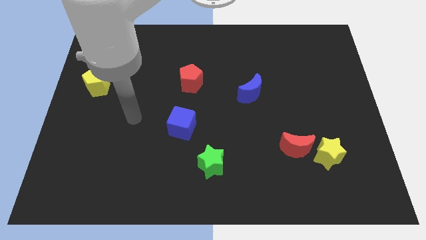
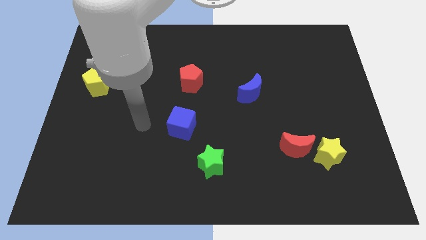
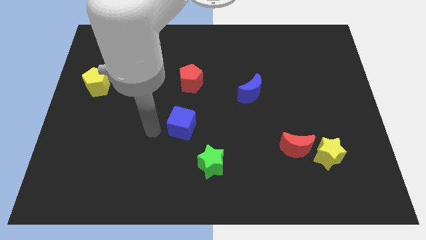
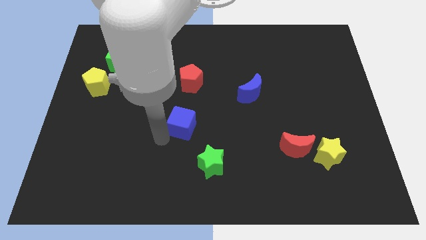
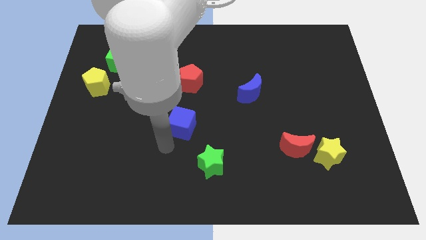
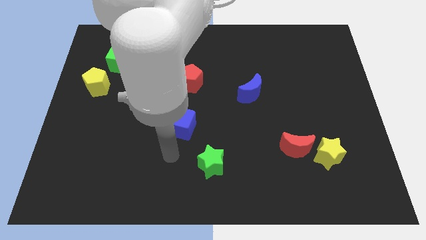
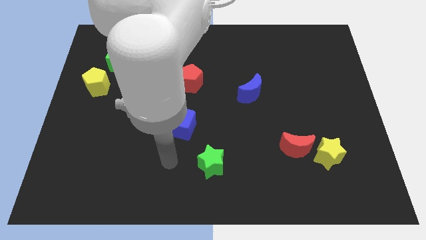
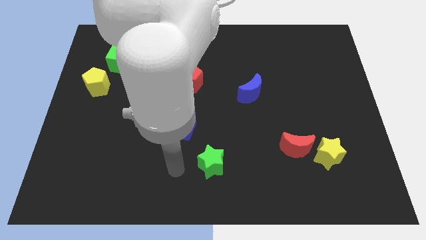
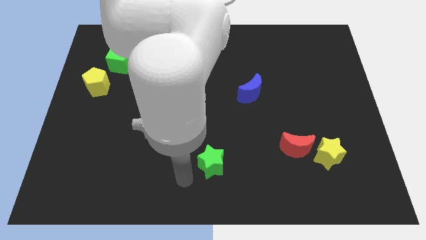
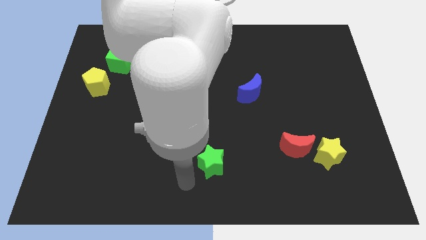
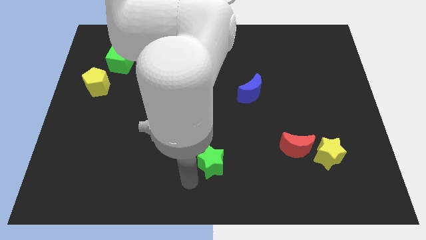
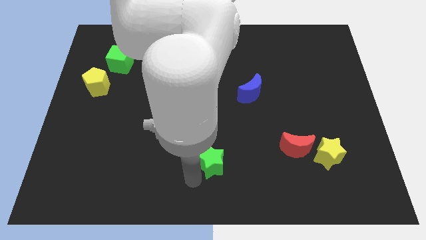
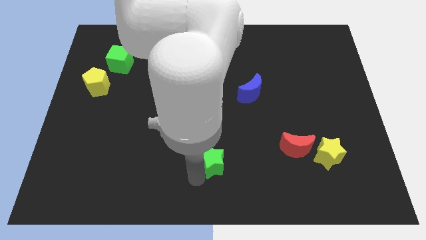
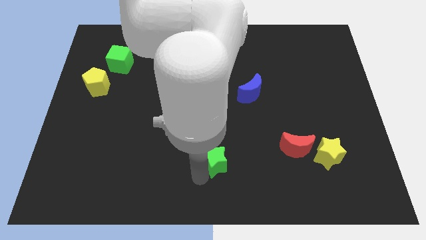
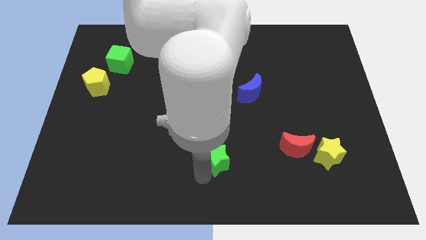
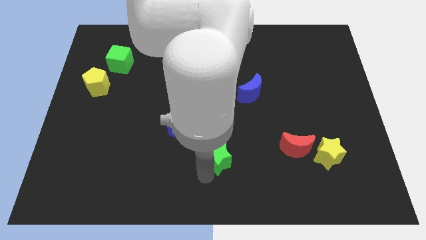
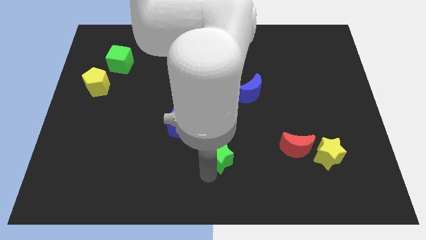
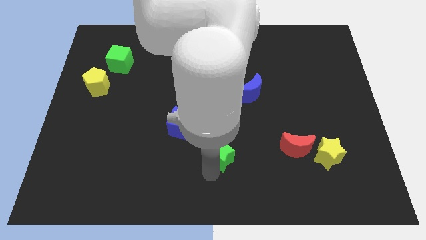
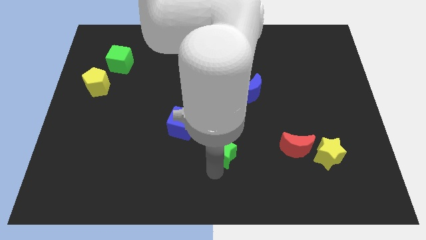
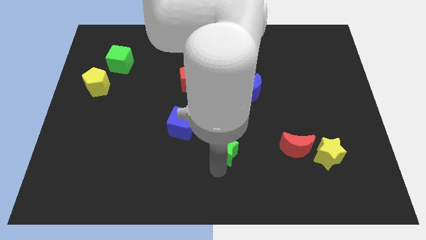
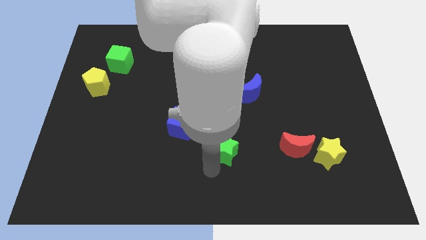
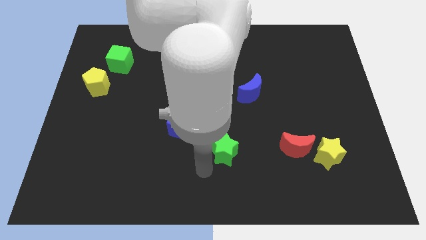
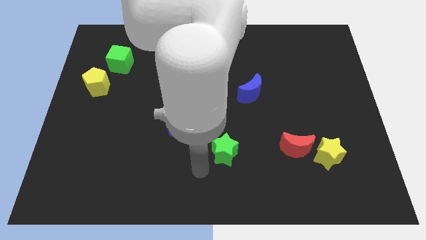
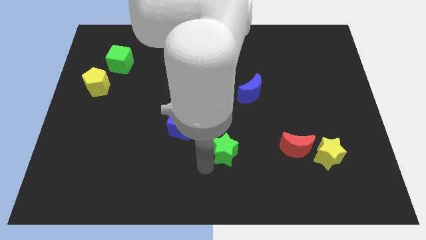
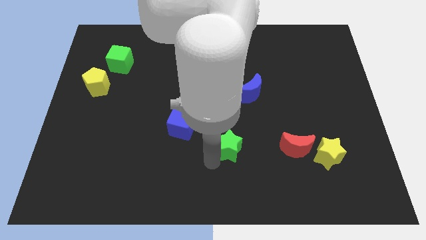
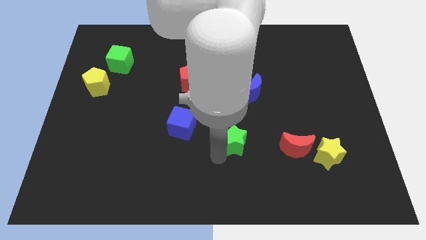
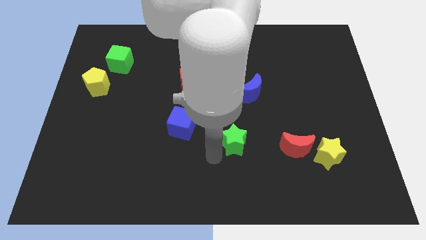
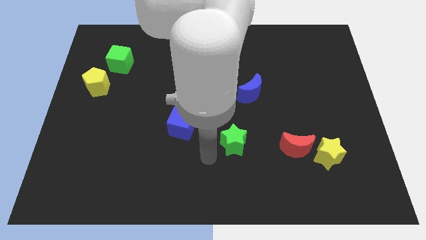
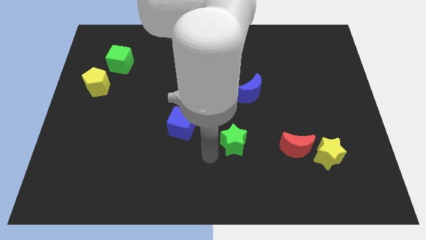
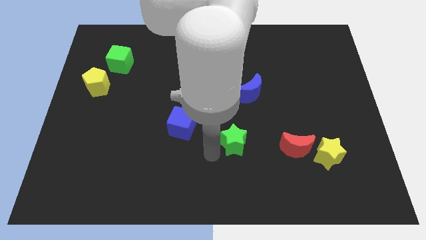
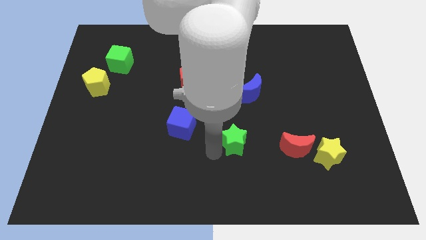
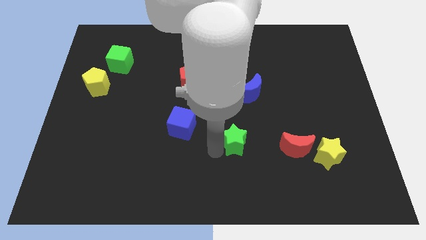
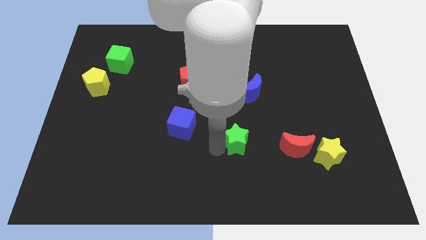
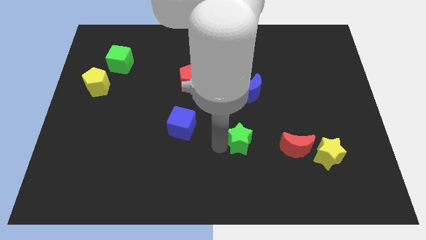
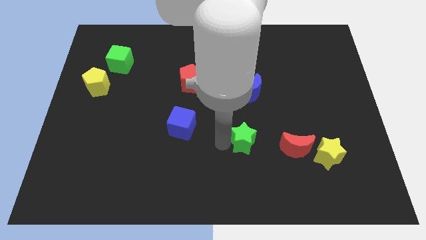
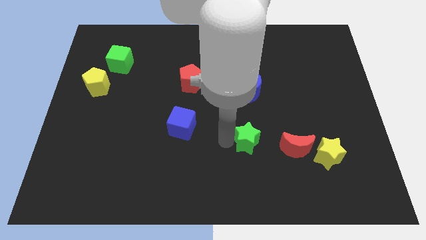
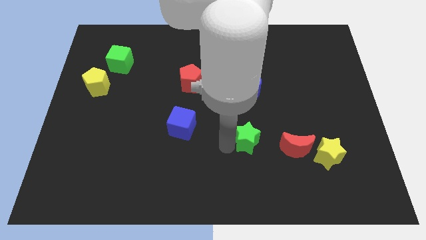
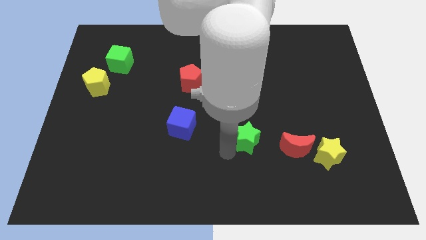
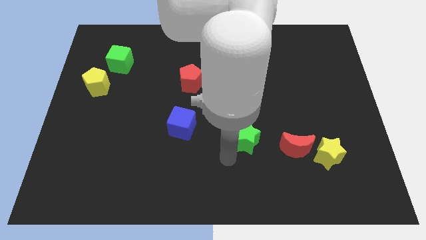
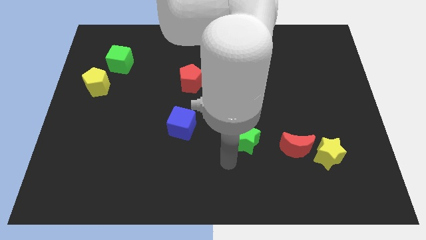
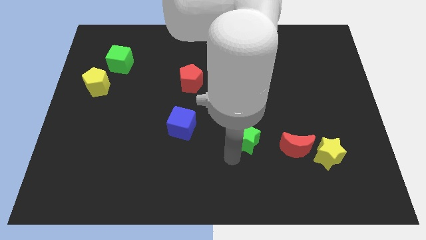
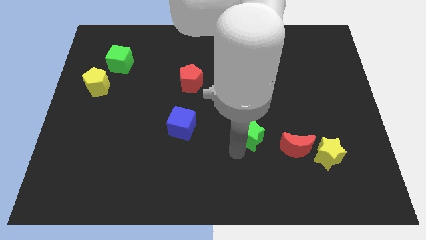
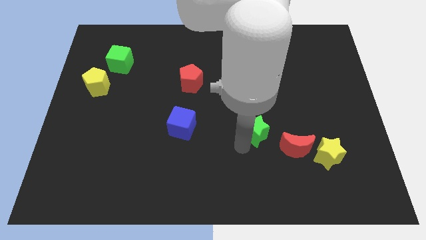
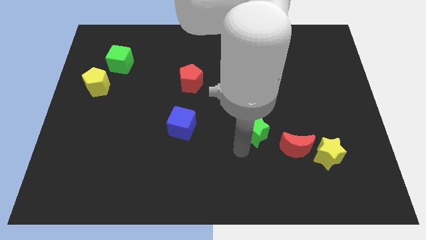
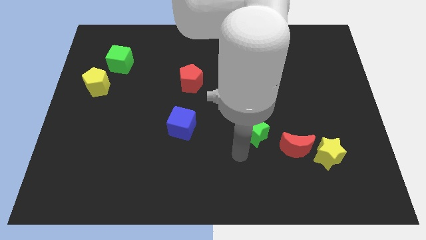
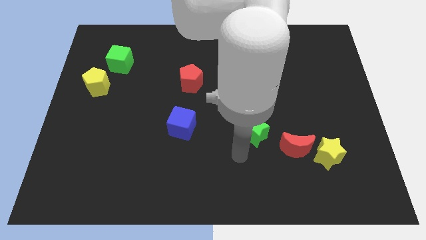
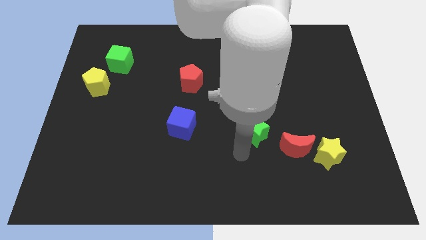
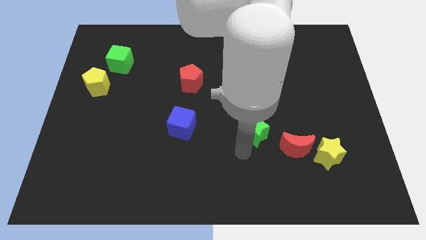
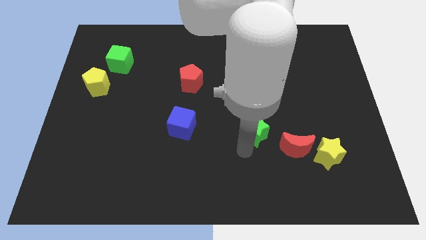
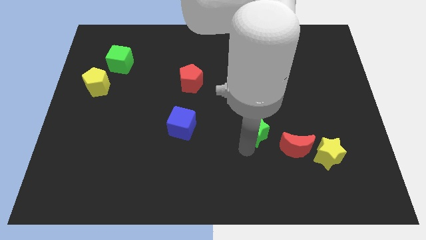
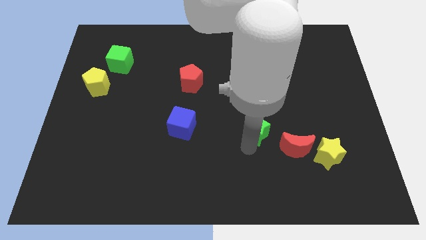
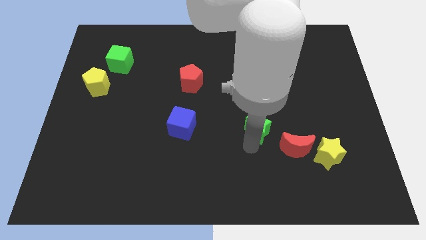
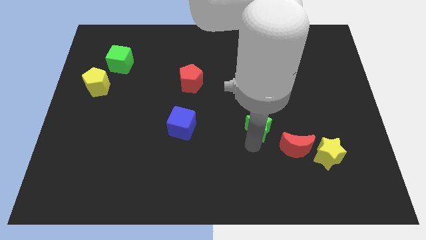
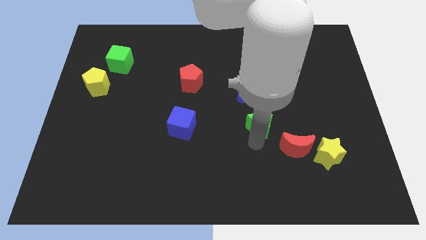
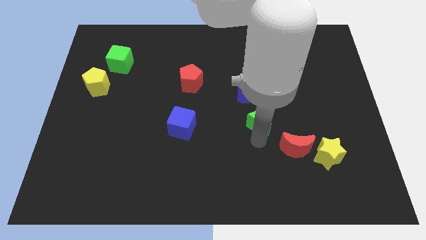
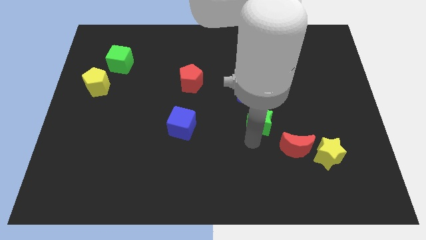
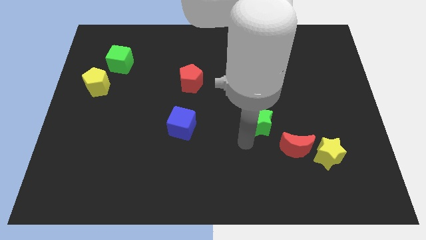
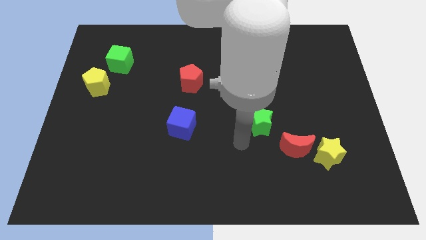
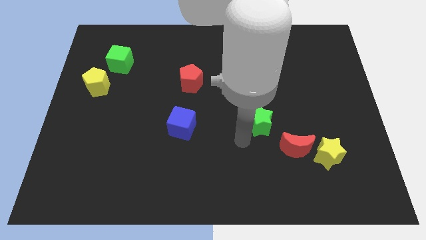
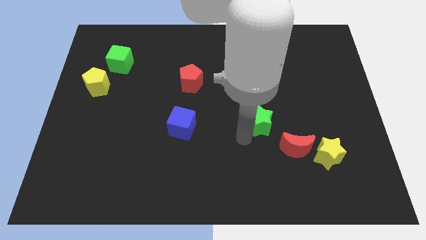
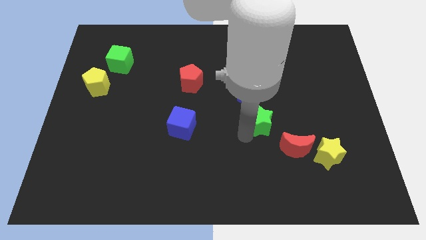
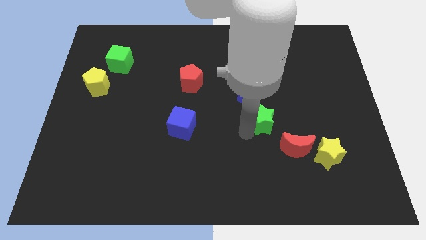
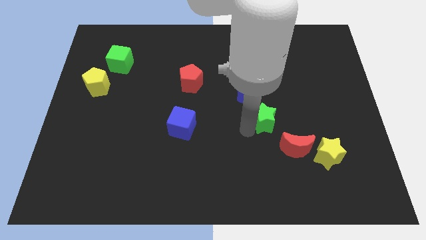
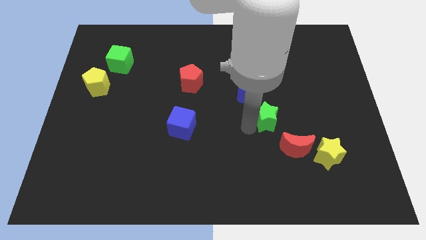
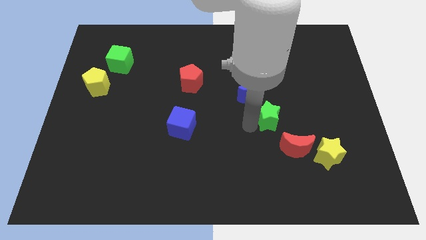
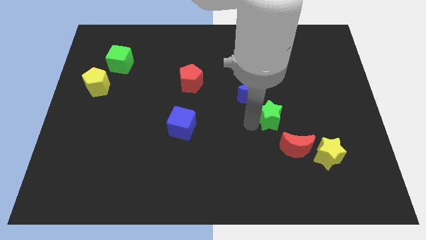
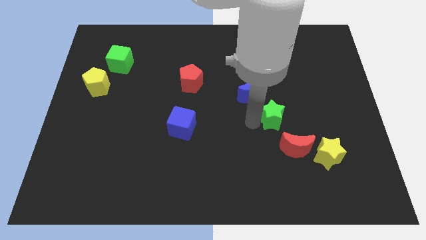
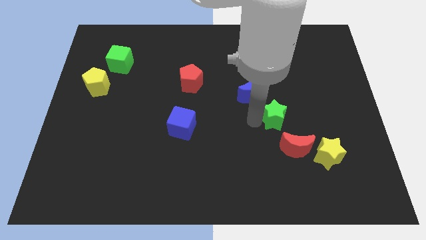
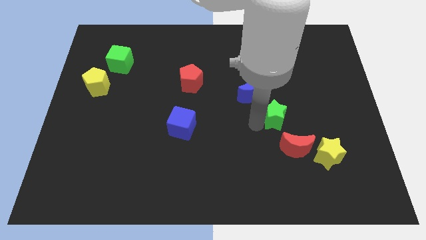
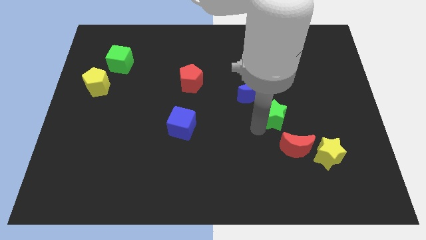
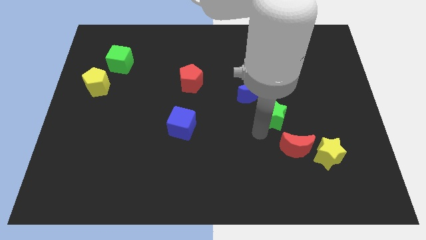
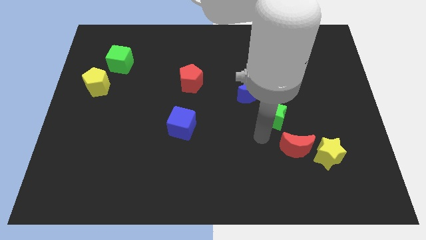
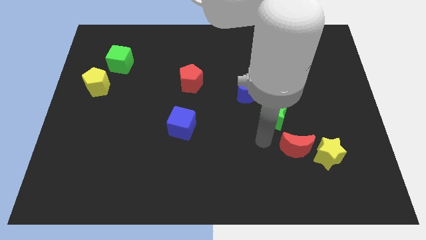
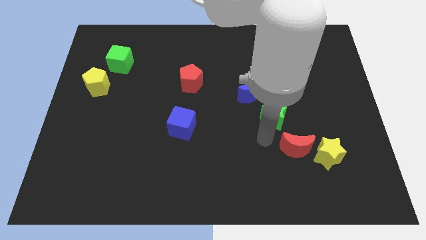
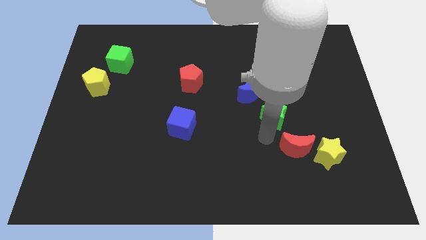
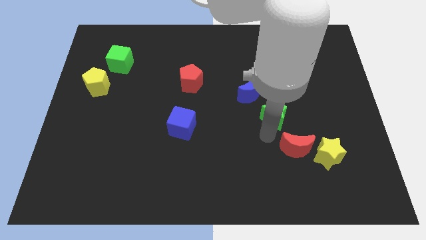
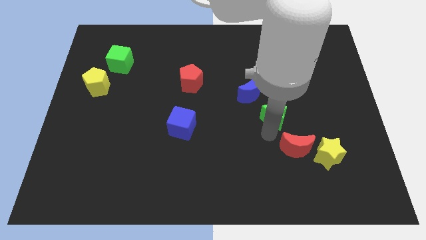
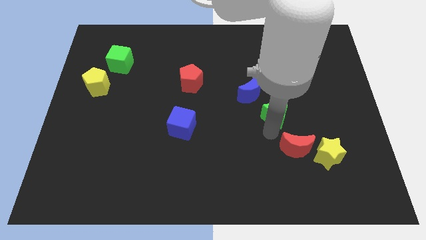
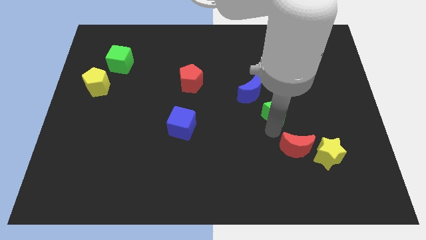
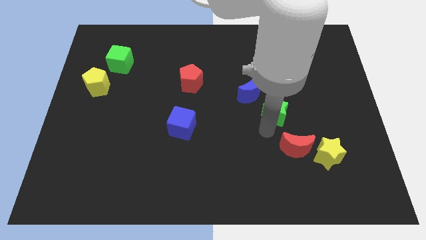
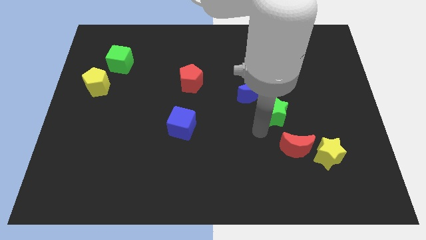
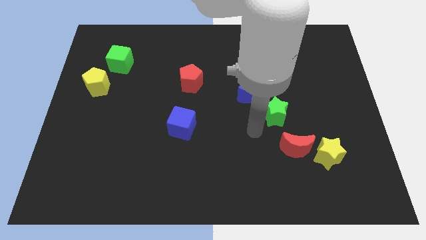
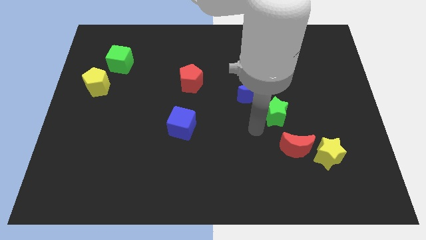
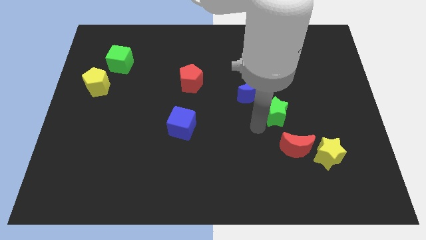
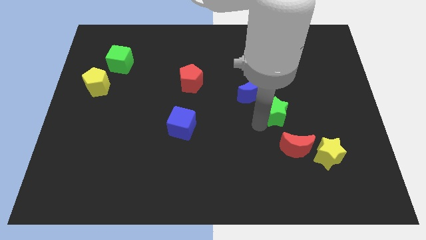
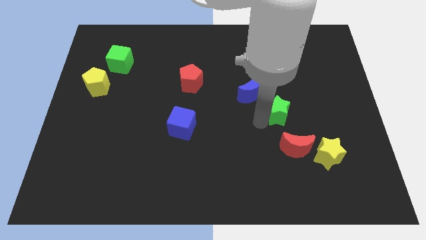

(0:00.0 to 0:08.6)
push the green star up and then right
